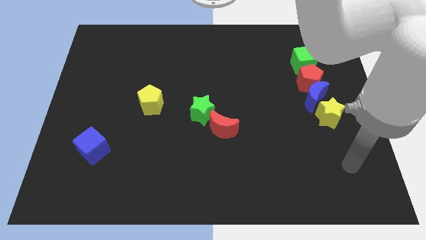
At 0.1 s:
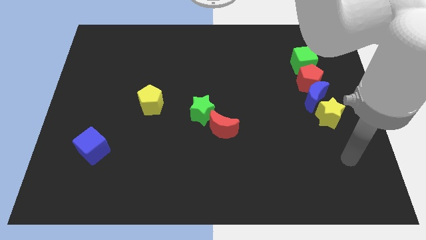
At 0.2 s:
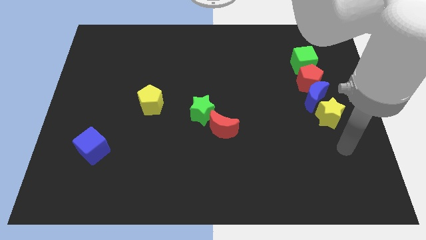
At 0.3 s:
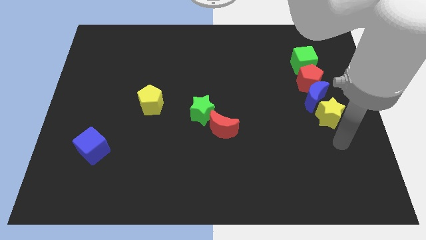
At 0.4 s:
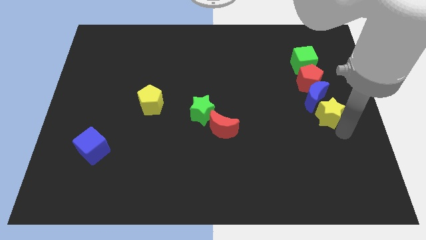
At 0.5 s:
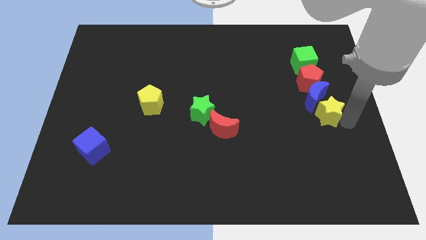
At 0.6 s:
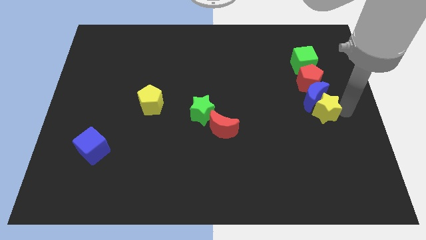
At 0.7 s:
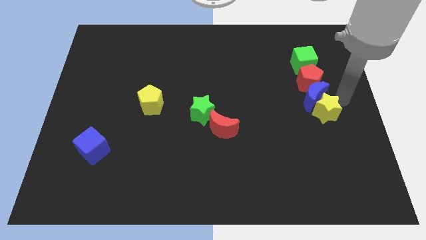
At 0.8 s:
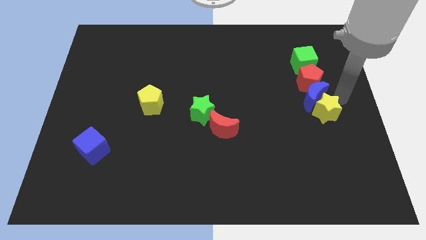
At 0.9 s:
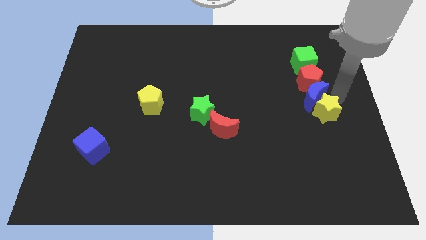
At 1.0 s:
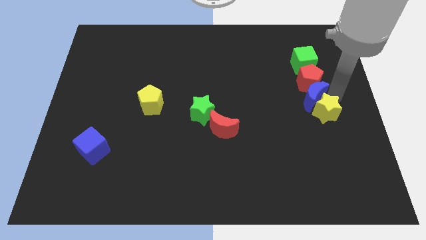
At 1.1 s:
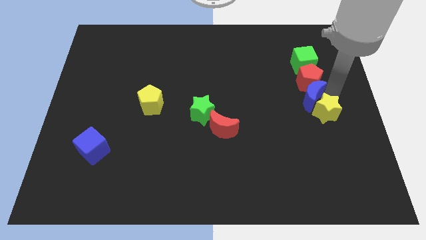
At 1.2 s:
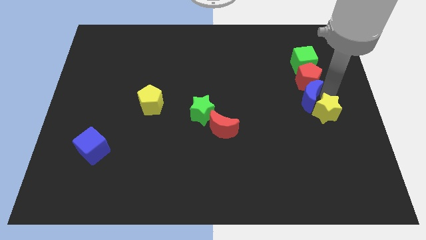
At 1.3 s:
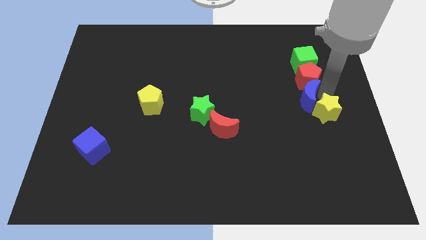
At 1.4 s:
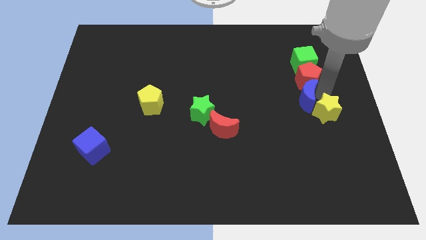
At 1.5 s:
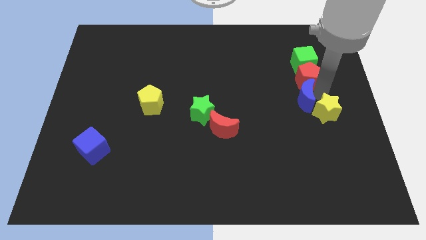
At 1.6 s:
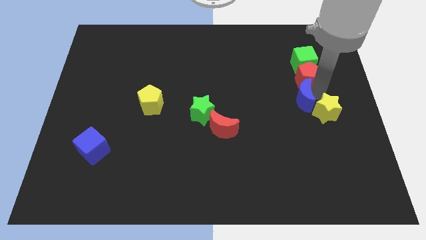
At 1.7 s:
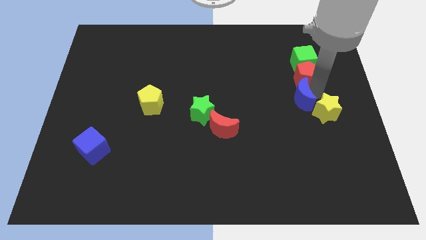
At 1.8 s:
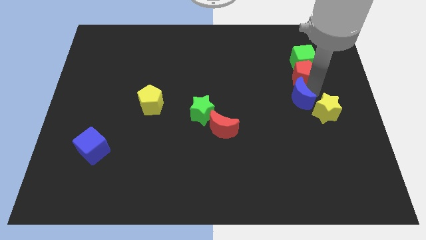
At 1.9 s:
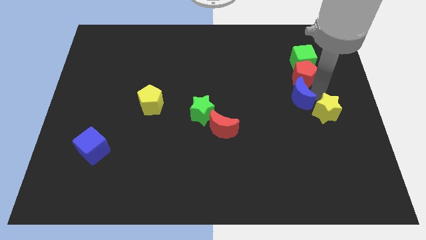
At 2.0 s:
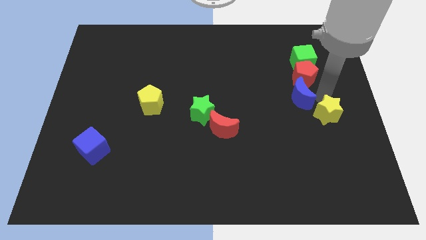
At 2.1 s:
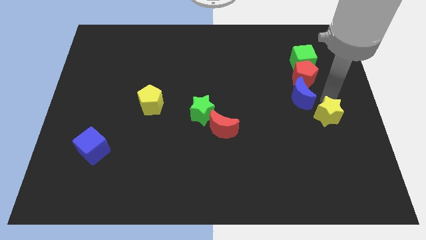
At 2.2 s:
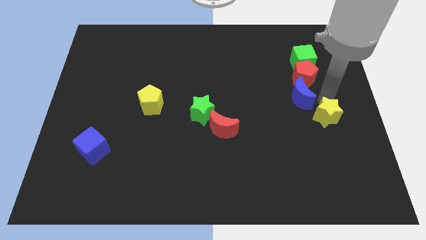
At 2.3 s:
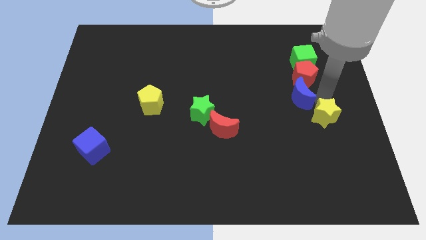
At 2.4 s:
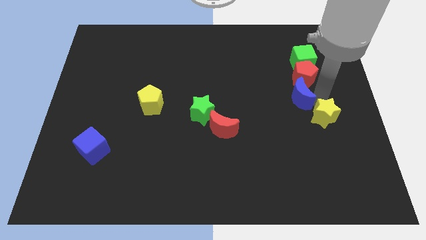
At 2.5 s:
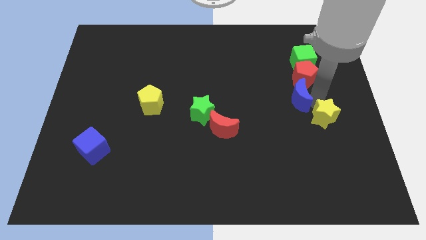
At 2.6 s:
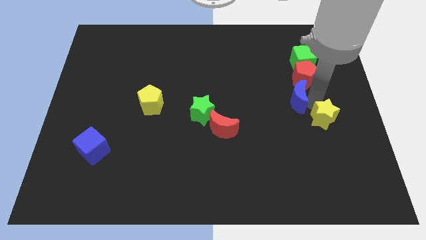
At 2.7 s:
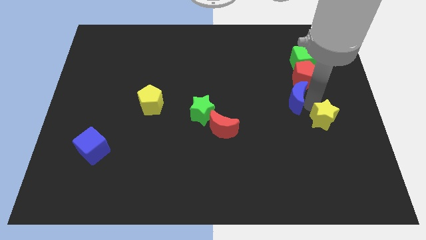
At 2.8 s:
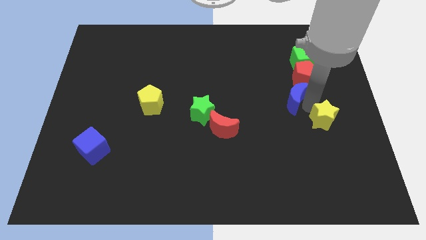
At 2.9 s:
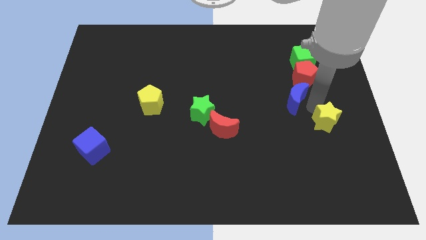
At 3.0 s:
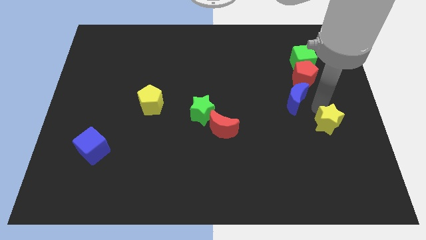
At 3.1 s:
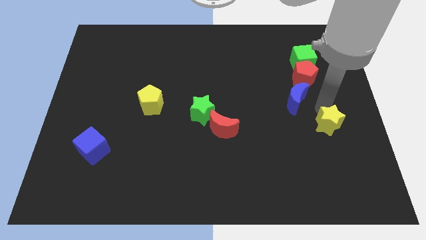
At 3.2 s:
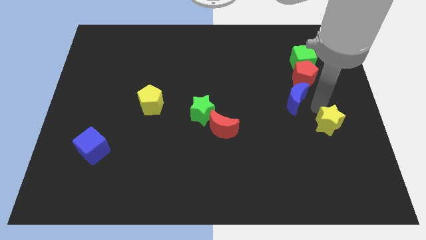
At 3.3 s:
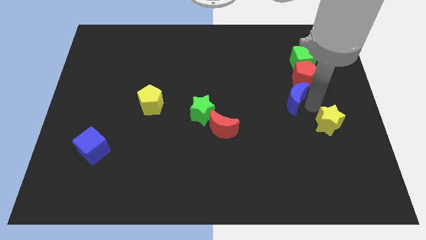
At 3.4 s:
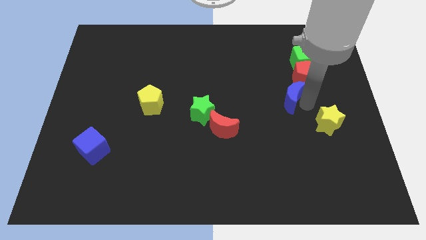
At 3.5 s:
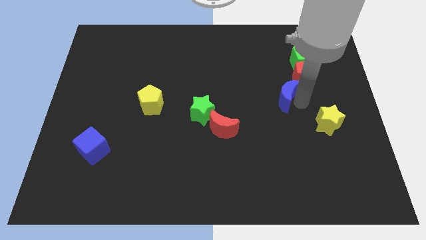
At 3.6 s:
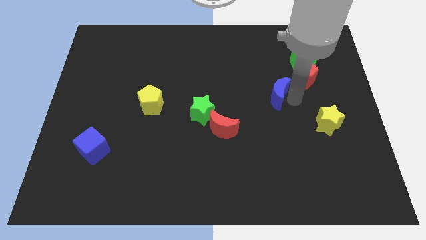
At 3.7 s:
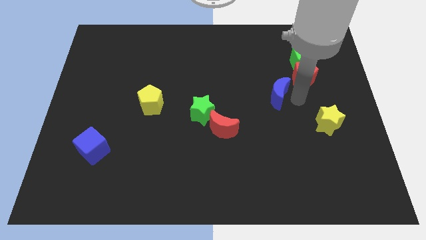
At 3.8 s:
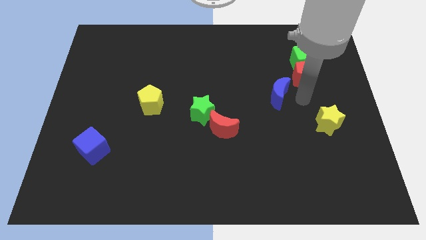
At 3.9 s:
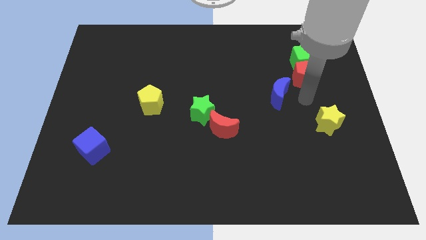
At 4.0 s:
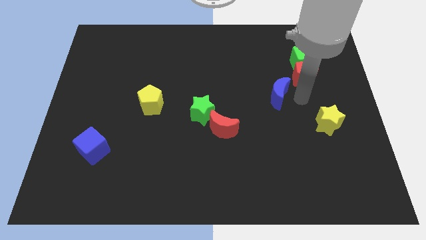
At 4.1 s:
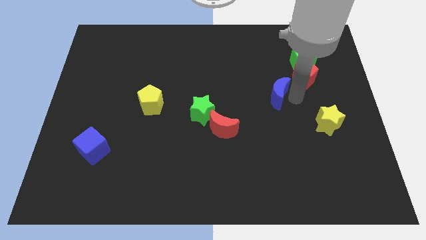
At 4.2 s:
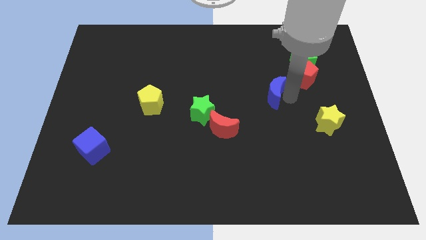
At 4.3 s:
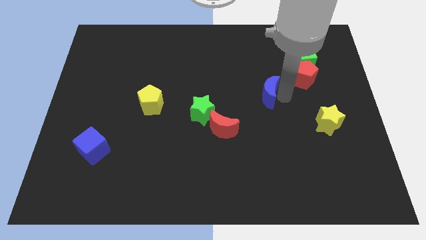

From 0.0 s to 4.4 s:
separate the blue moon from the red pentagon and yellow star

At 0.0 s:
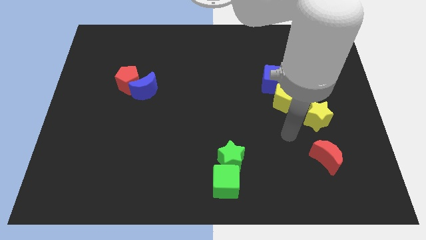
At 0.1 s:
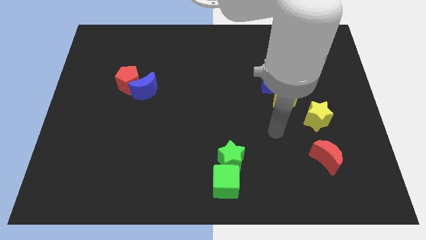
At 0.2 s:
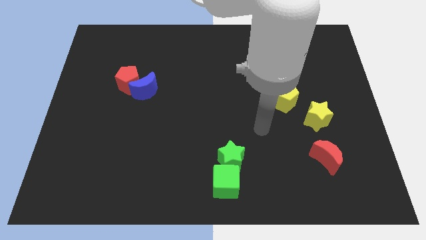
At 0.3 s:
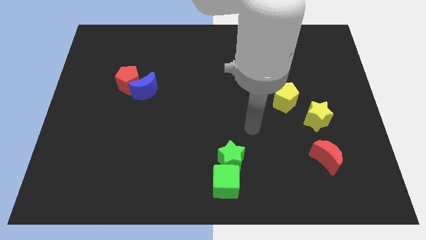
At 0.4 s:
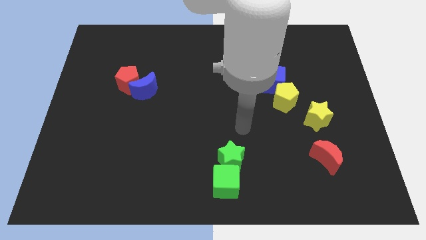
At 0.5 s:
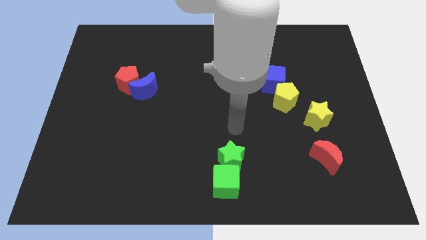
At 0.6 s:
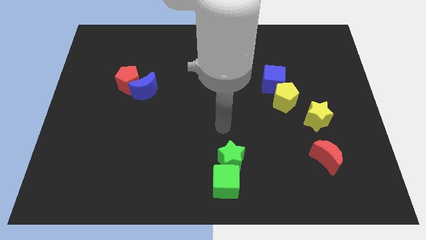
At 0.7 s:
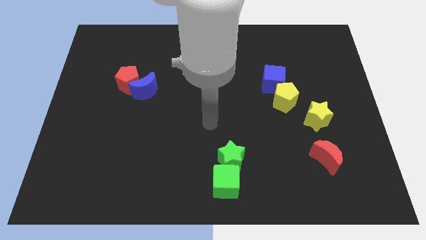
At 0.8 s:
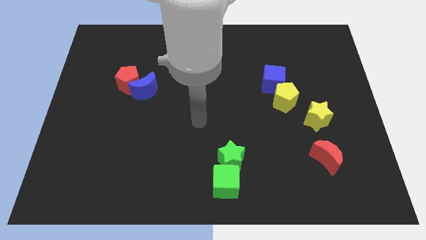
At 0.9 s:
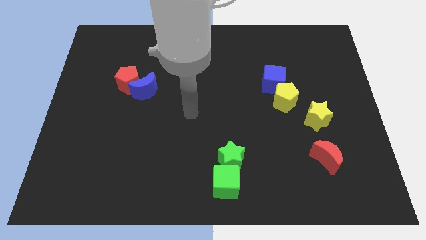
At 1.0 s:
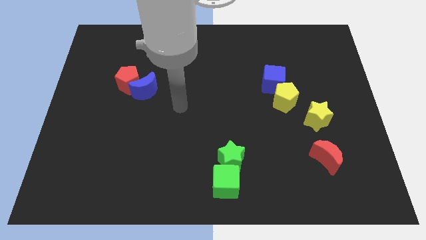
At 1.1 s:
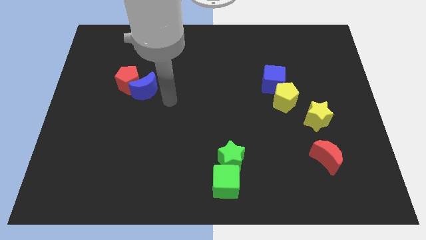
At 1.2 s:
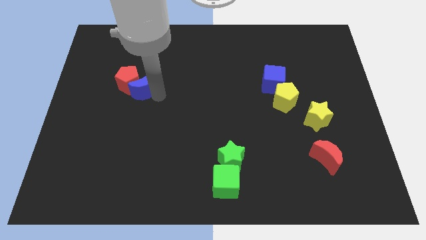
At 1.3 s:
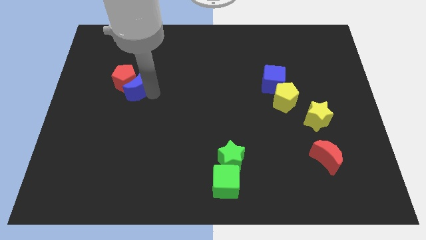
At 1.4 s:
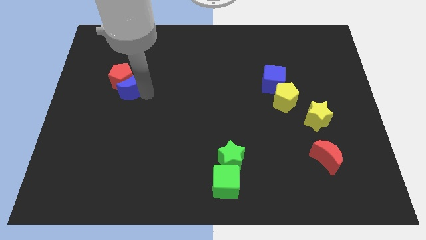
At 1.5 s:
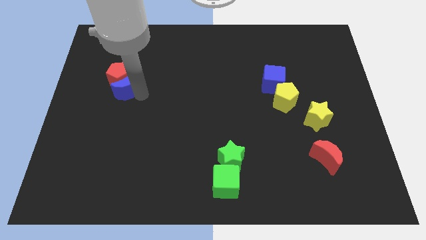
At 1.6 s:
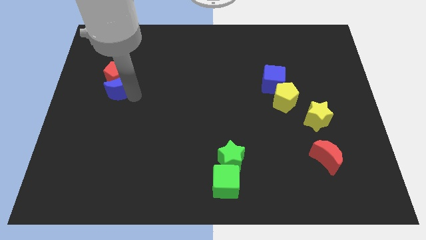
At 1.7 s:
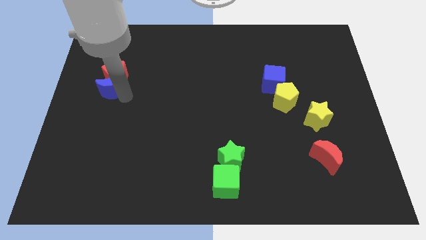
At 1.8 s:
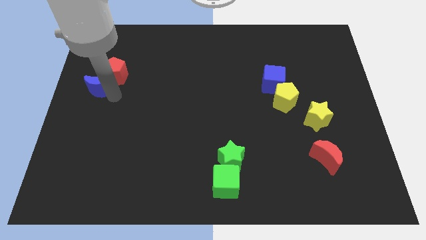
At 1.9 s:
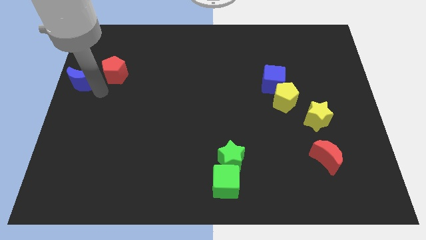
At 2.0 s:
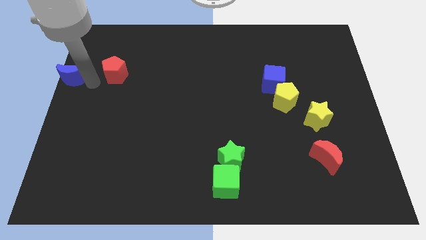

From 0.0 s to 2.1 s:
move the red pentagon away from the blue moon

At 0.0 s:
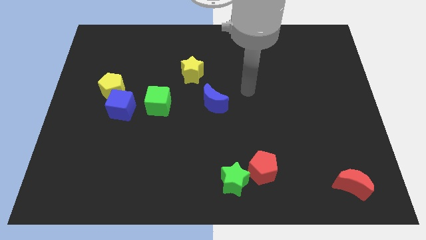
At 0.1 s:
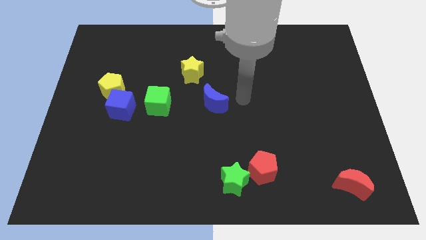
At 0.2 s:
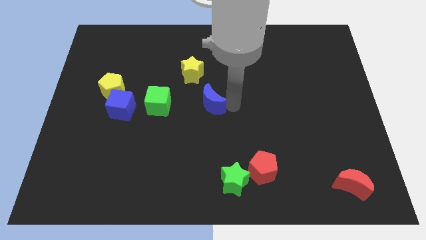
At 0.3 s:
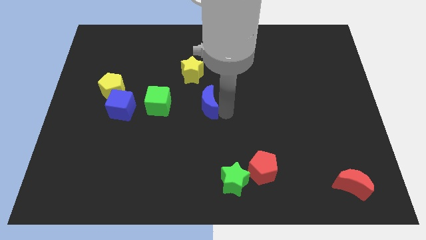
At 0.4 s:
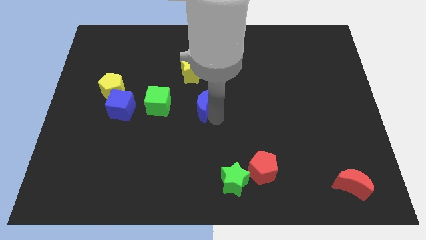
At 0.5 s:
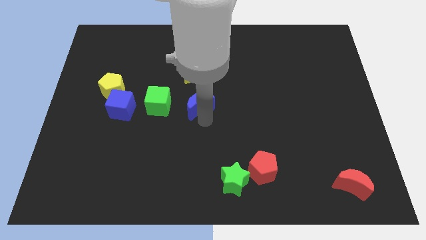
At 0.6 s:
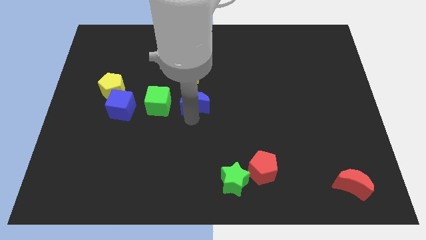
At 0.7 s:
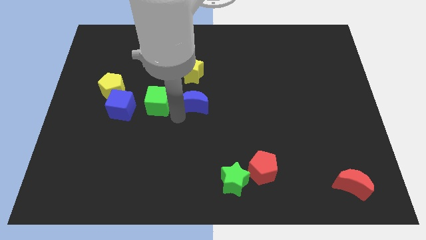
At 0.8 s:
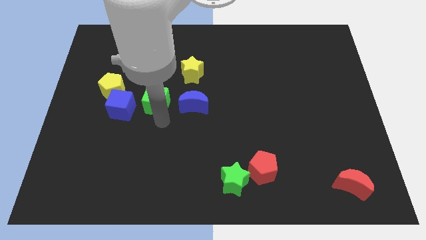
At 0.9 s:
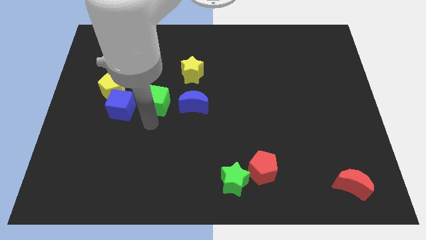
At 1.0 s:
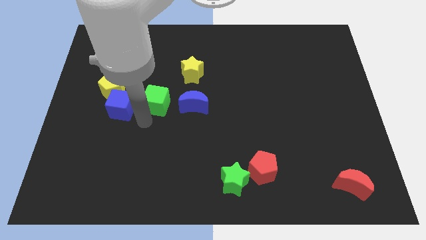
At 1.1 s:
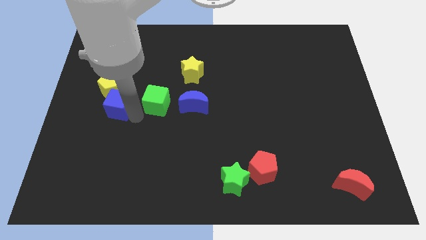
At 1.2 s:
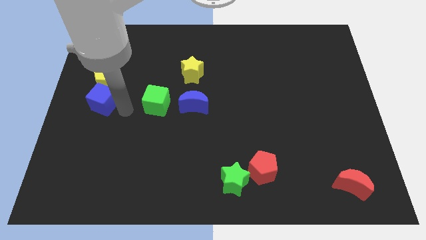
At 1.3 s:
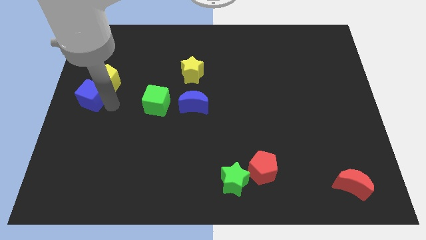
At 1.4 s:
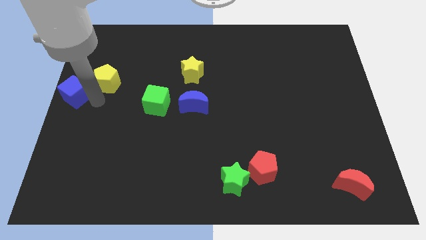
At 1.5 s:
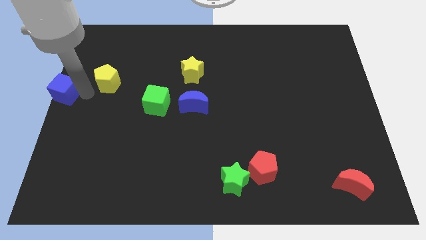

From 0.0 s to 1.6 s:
move the yellow pentagon away from the blue cube

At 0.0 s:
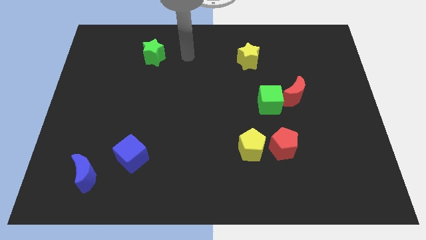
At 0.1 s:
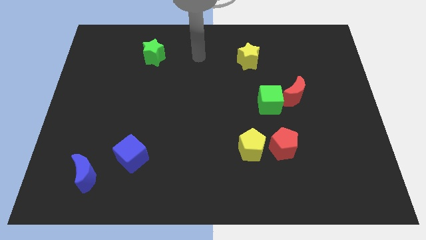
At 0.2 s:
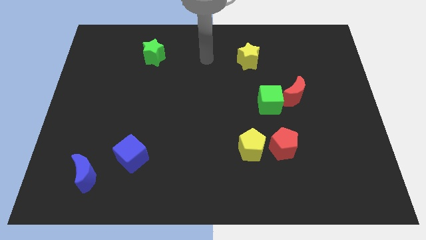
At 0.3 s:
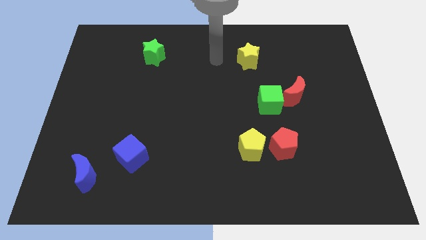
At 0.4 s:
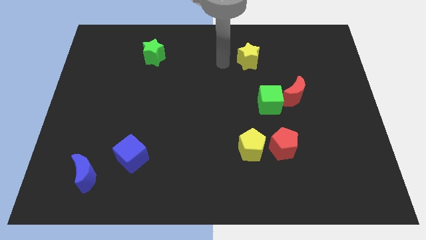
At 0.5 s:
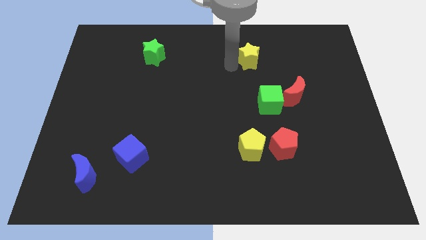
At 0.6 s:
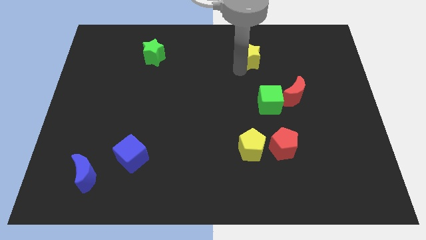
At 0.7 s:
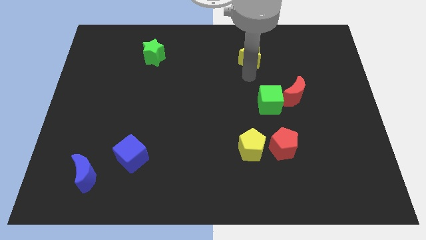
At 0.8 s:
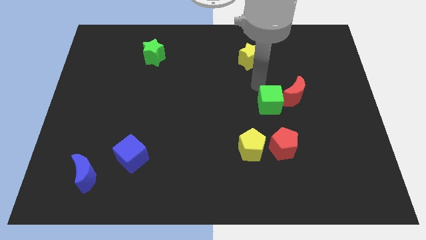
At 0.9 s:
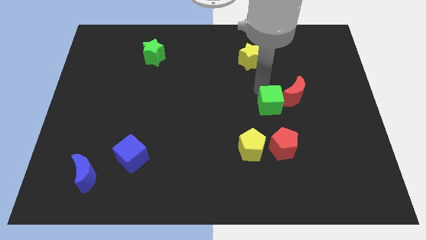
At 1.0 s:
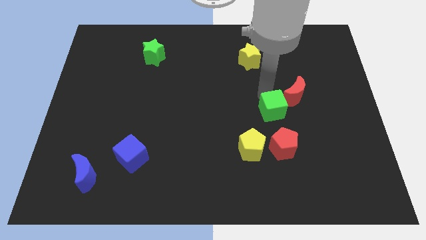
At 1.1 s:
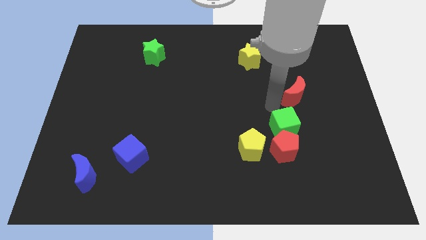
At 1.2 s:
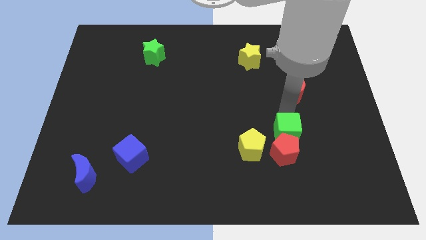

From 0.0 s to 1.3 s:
pull the red moon apart from the green cube
